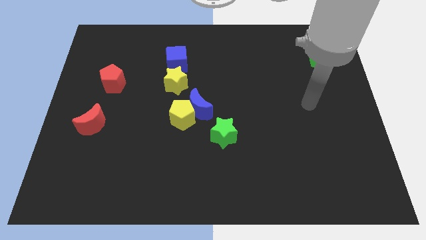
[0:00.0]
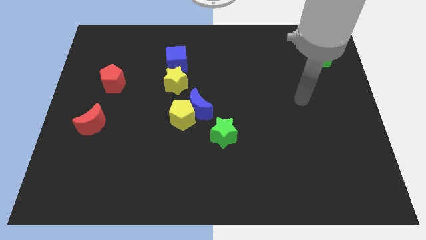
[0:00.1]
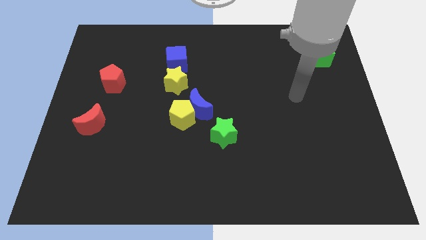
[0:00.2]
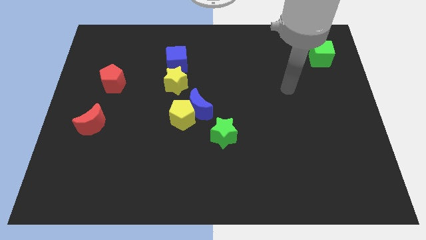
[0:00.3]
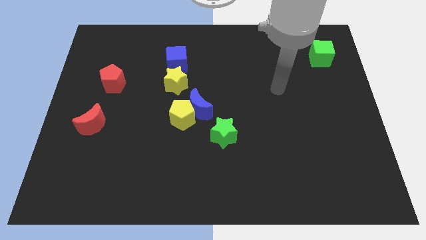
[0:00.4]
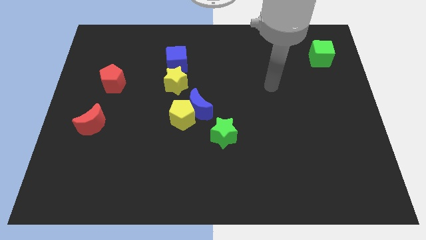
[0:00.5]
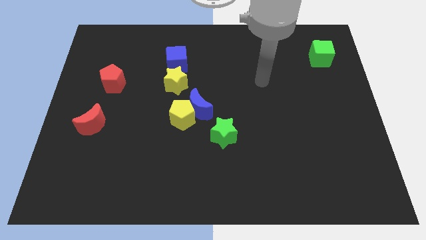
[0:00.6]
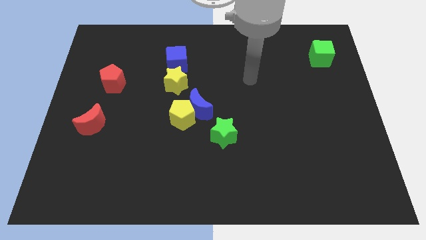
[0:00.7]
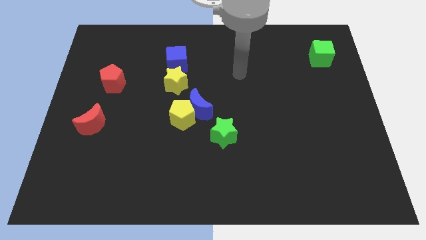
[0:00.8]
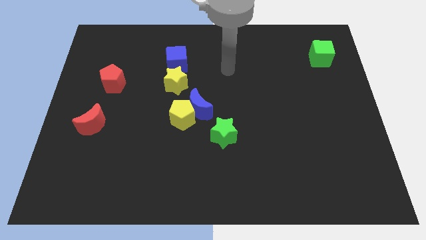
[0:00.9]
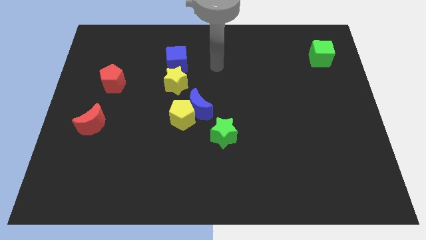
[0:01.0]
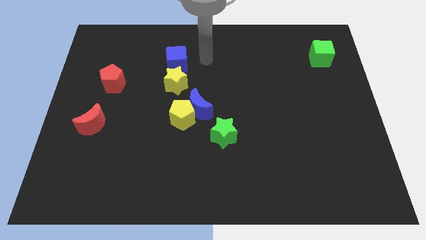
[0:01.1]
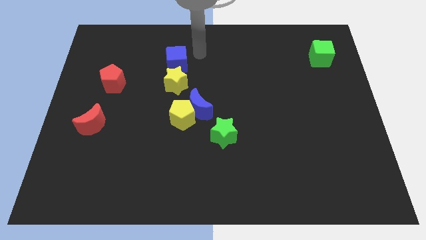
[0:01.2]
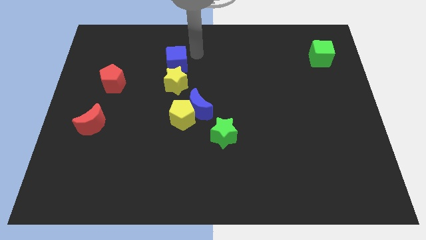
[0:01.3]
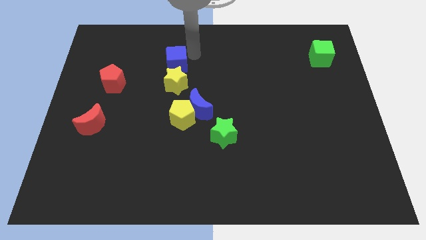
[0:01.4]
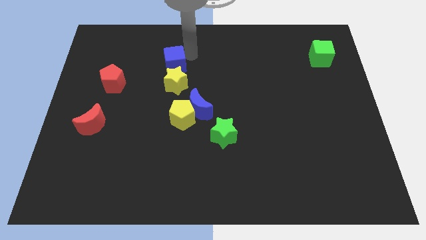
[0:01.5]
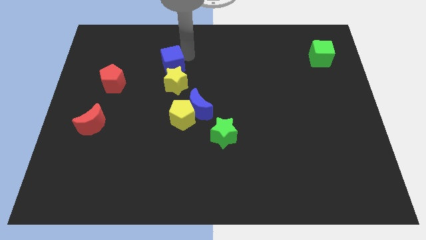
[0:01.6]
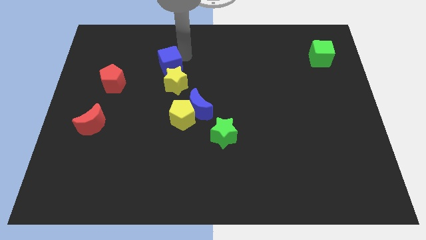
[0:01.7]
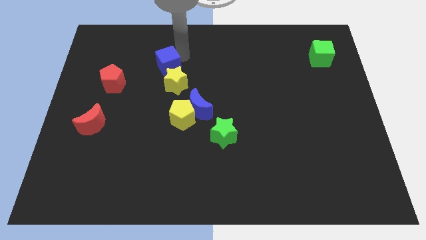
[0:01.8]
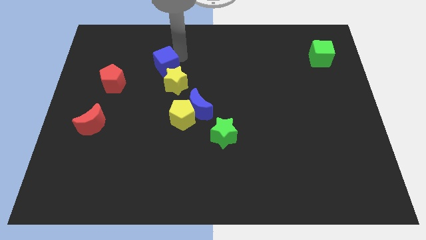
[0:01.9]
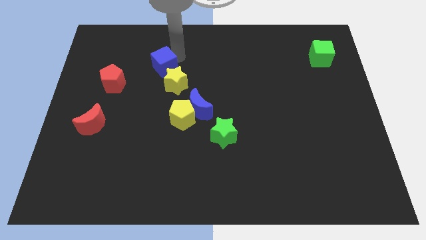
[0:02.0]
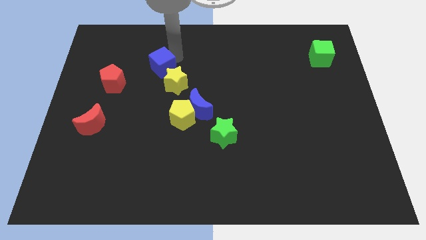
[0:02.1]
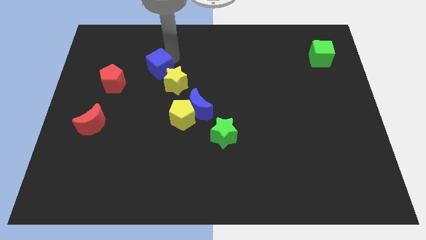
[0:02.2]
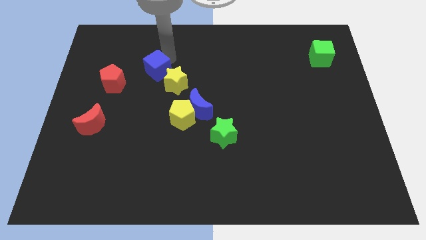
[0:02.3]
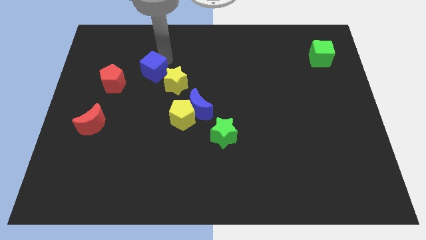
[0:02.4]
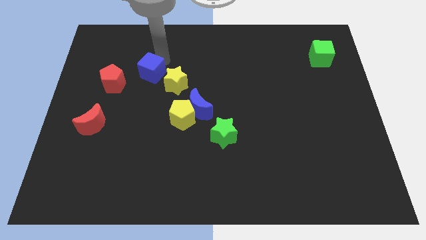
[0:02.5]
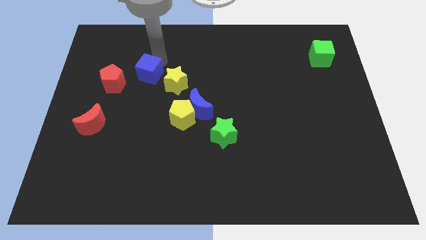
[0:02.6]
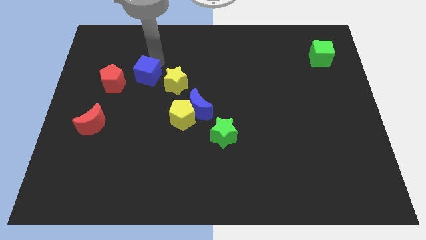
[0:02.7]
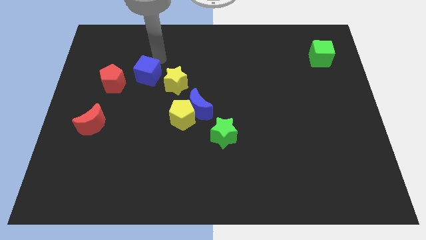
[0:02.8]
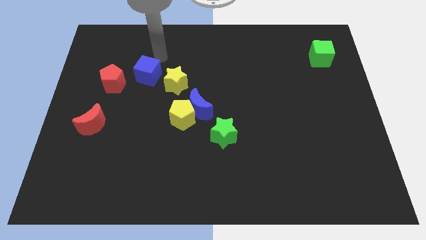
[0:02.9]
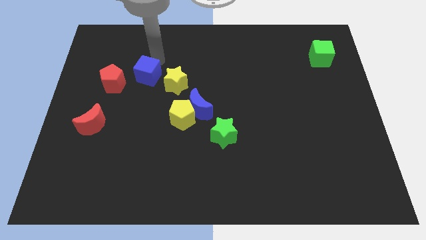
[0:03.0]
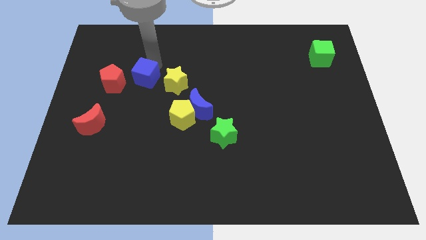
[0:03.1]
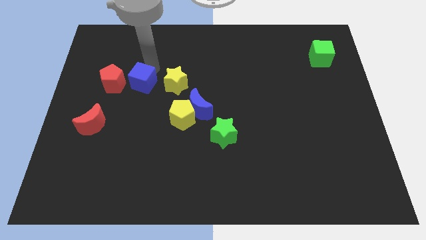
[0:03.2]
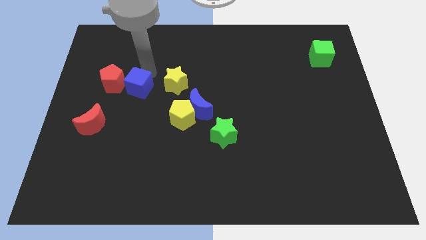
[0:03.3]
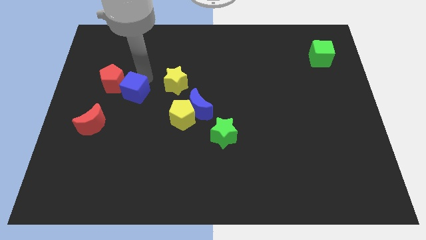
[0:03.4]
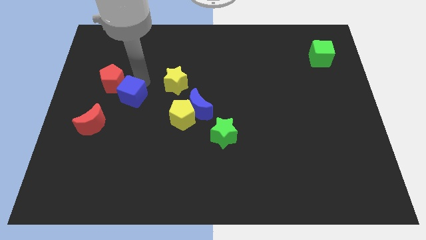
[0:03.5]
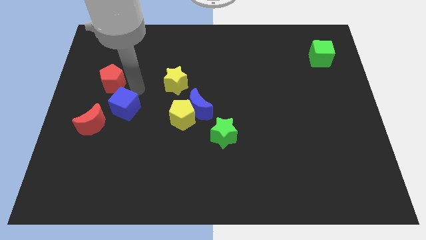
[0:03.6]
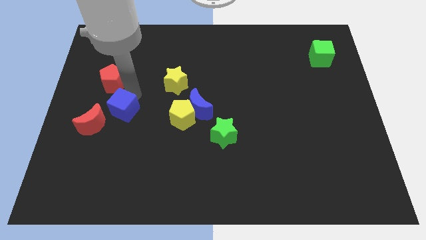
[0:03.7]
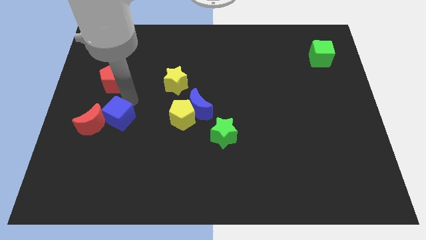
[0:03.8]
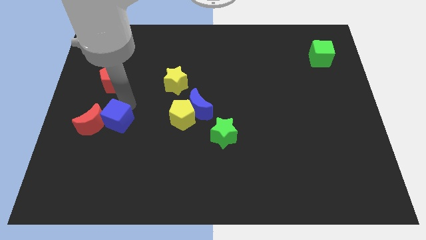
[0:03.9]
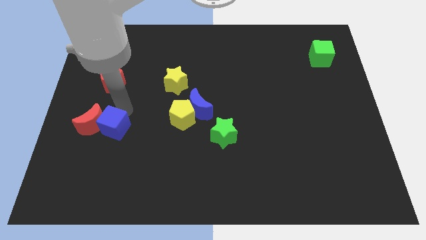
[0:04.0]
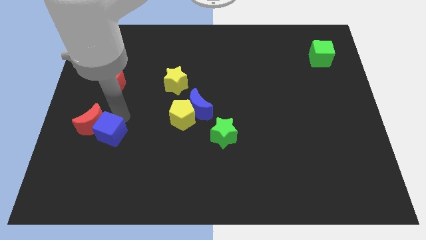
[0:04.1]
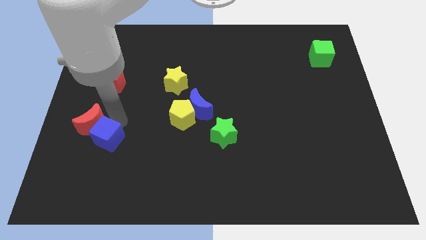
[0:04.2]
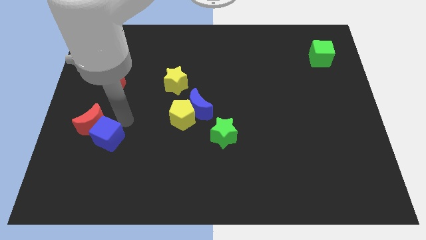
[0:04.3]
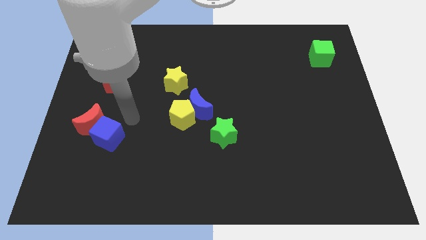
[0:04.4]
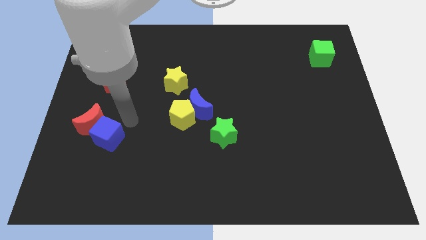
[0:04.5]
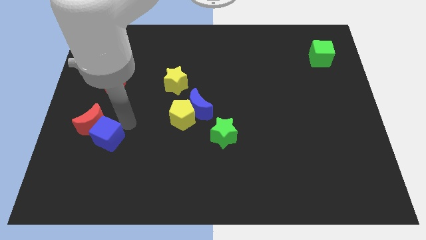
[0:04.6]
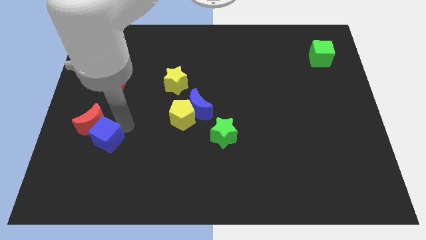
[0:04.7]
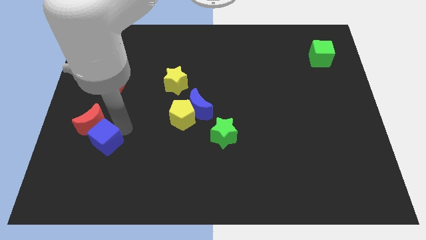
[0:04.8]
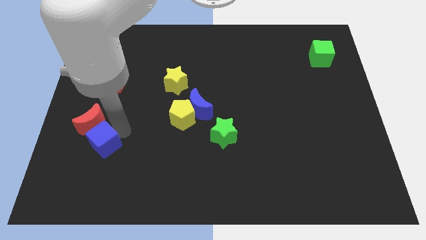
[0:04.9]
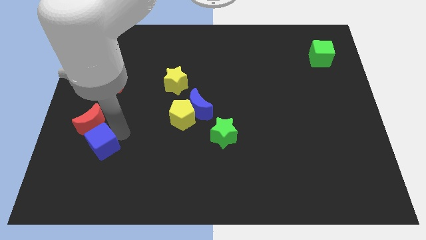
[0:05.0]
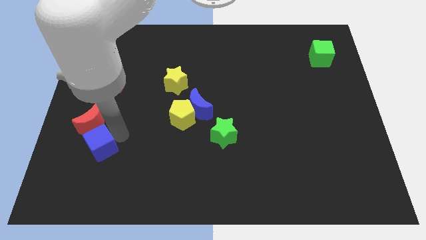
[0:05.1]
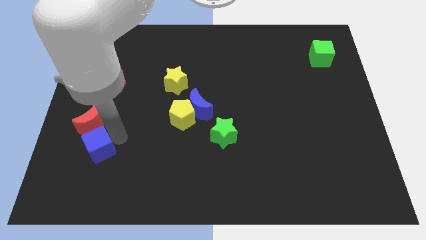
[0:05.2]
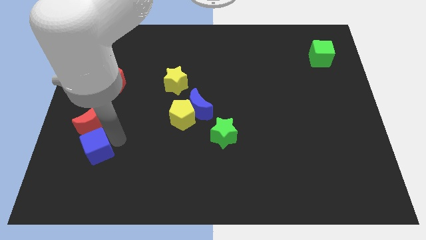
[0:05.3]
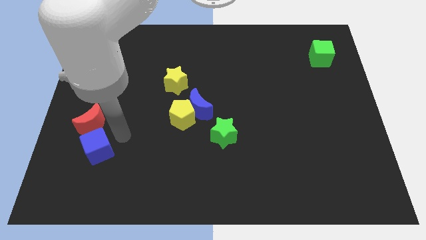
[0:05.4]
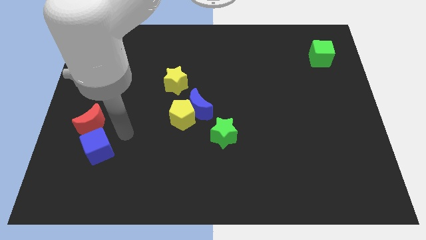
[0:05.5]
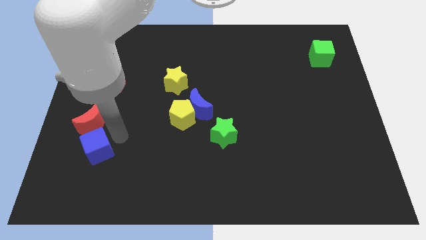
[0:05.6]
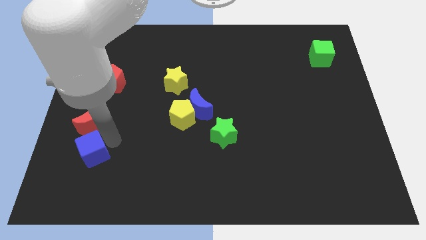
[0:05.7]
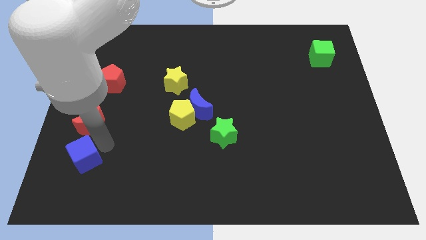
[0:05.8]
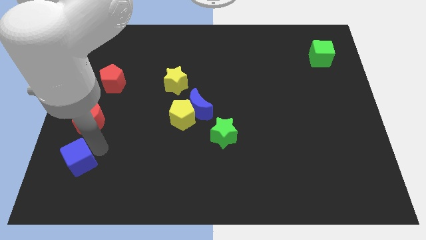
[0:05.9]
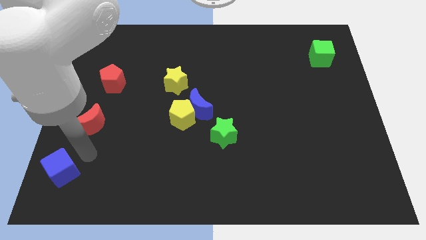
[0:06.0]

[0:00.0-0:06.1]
push the blue cube to the bottom left corner
